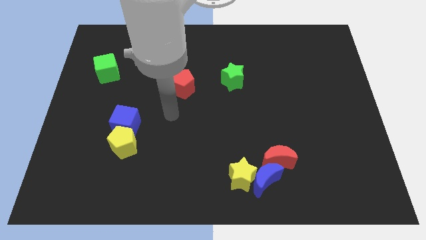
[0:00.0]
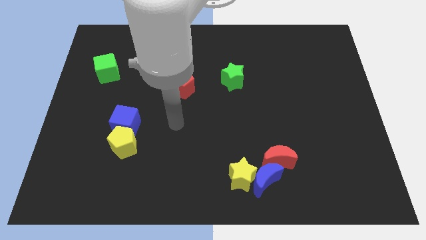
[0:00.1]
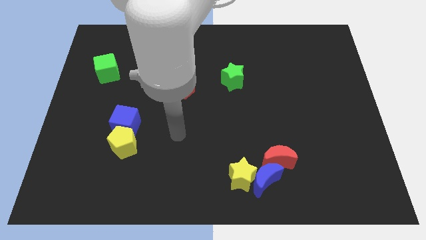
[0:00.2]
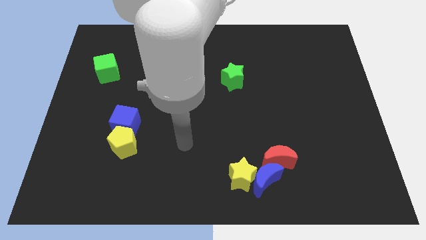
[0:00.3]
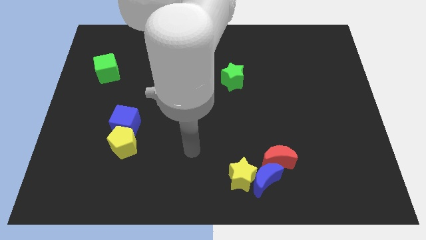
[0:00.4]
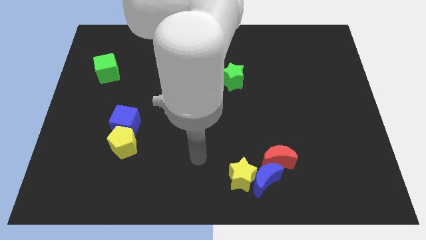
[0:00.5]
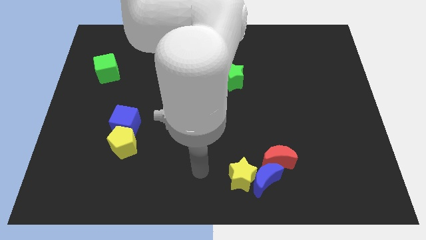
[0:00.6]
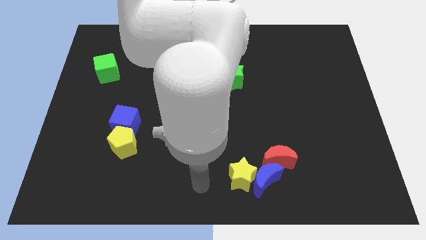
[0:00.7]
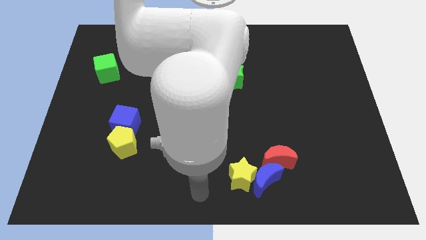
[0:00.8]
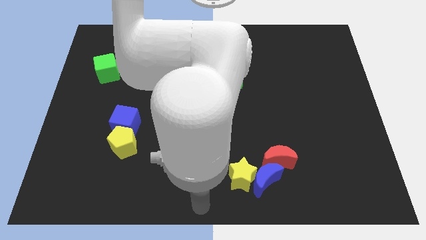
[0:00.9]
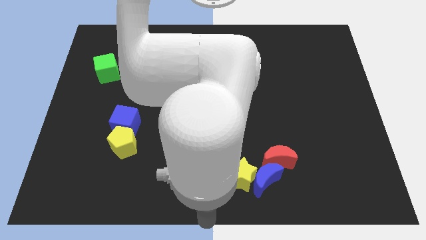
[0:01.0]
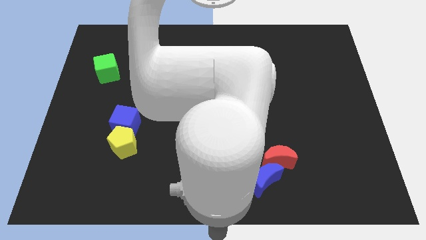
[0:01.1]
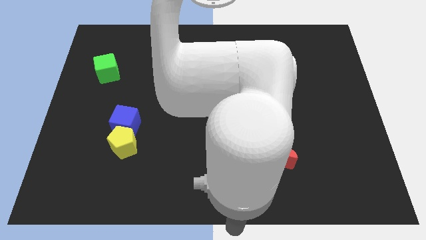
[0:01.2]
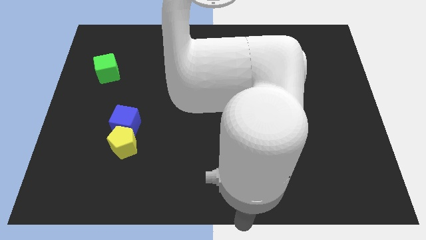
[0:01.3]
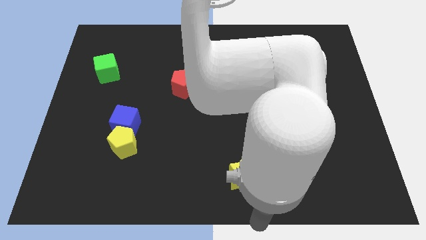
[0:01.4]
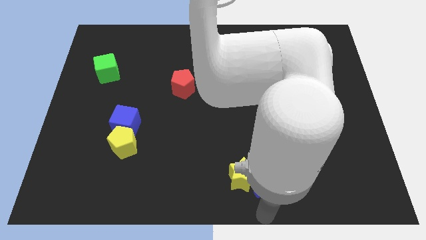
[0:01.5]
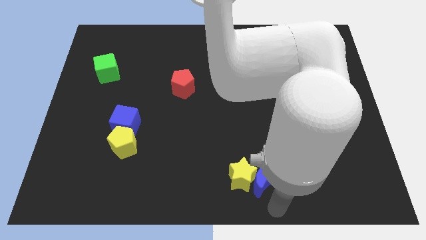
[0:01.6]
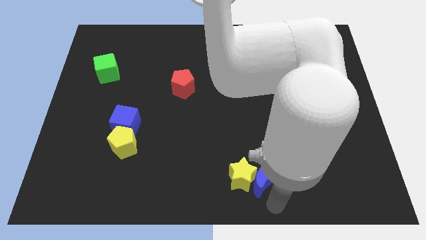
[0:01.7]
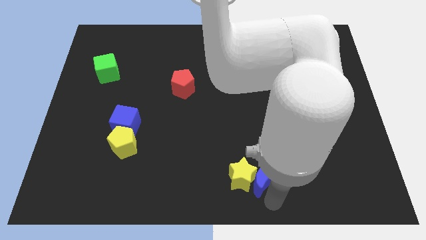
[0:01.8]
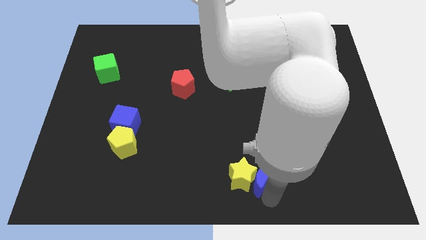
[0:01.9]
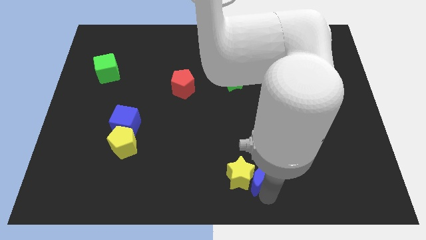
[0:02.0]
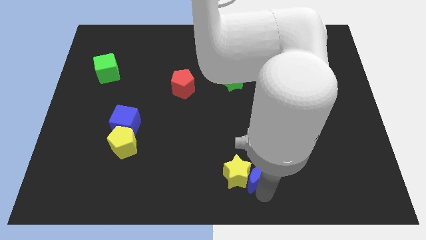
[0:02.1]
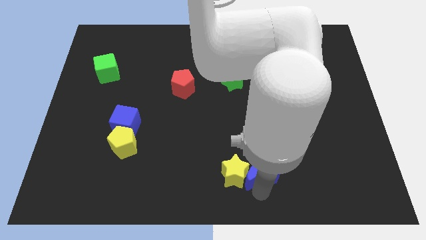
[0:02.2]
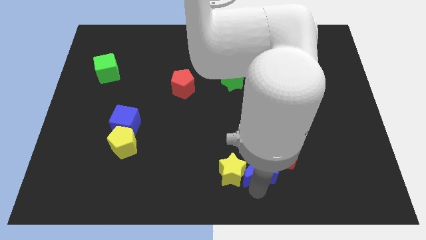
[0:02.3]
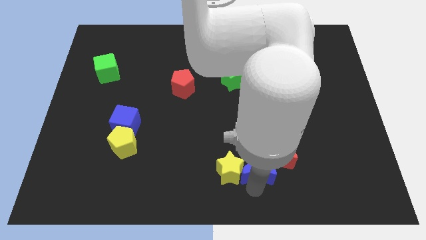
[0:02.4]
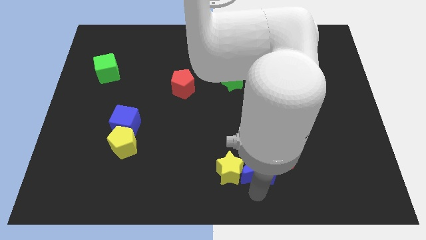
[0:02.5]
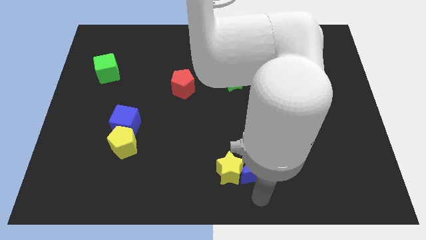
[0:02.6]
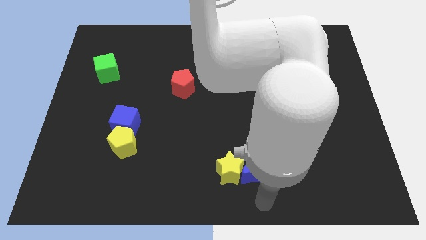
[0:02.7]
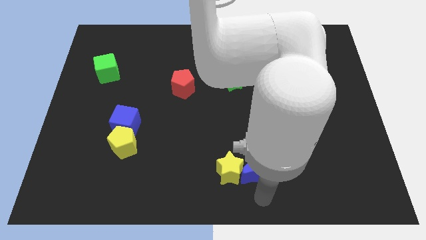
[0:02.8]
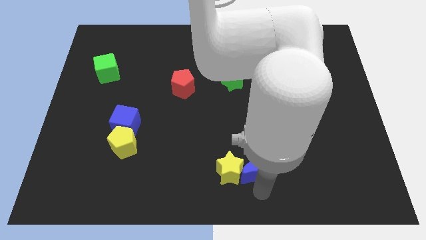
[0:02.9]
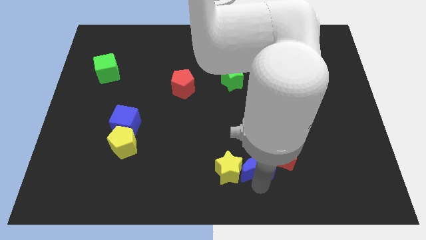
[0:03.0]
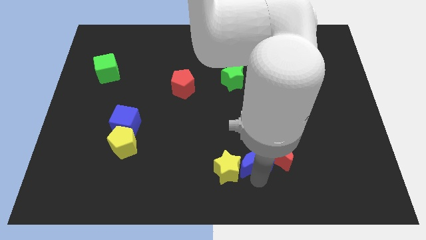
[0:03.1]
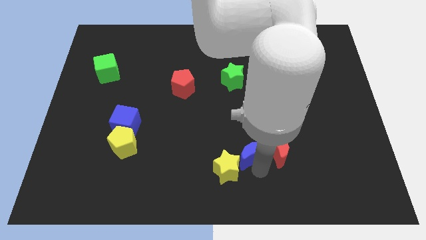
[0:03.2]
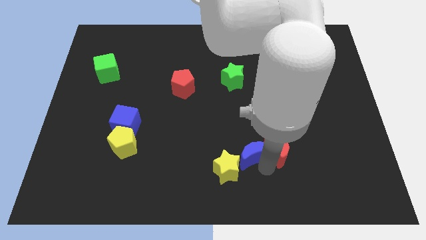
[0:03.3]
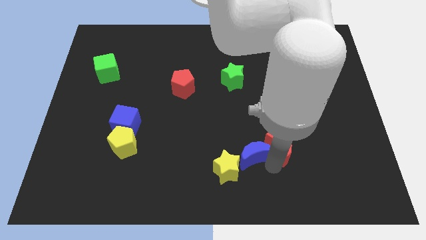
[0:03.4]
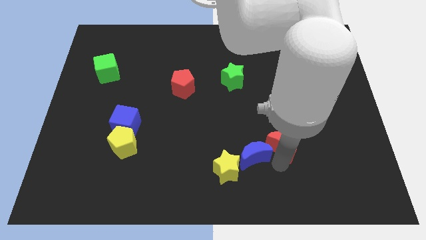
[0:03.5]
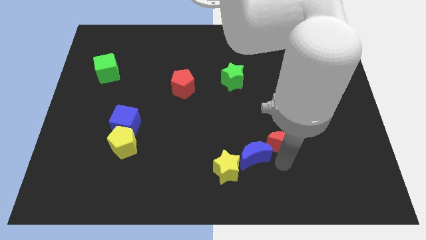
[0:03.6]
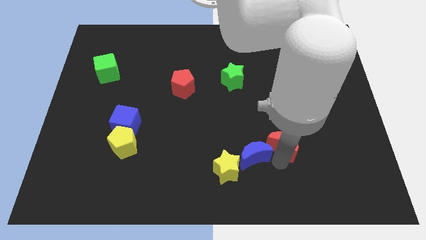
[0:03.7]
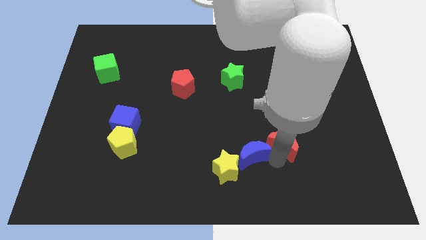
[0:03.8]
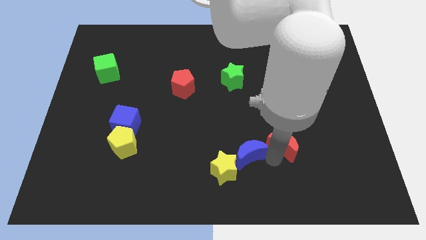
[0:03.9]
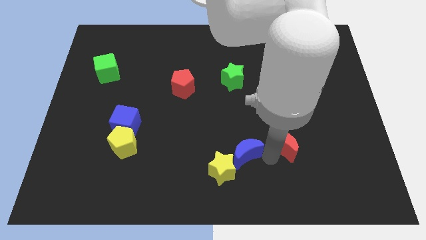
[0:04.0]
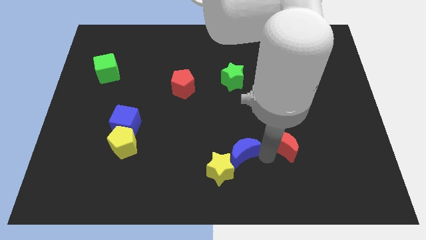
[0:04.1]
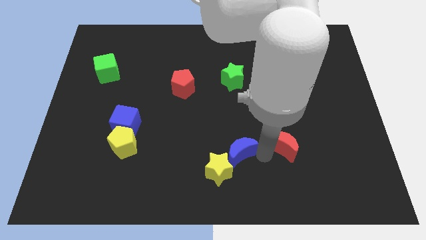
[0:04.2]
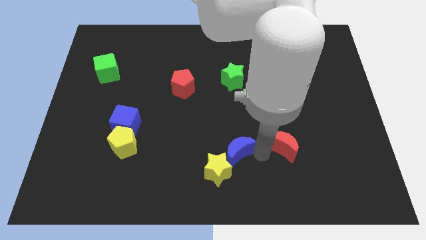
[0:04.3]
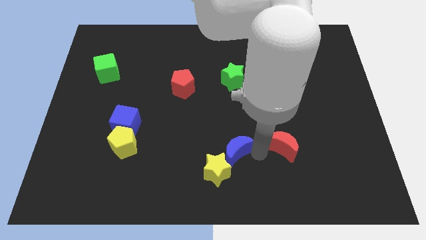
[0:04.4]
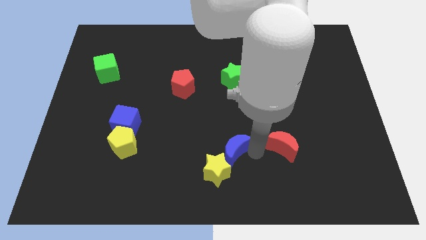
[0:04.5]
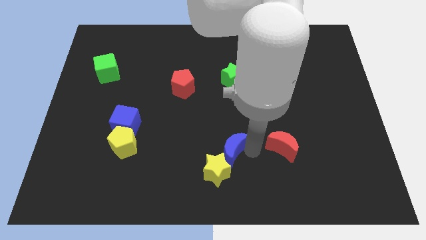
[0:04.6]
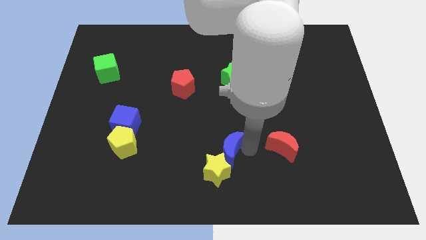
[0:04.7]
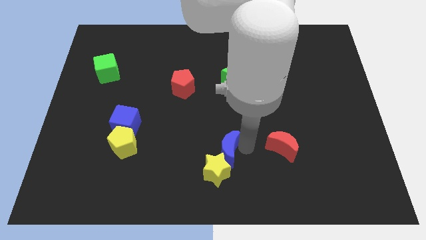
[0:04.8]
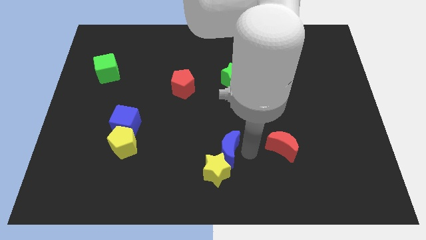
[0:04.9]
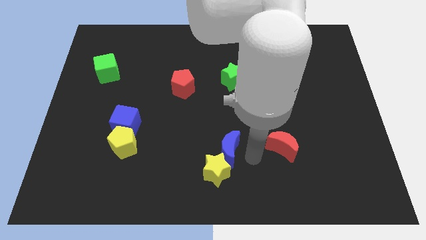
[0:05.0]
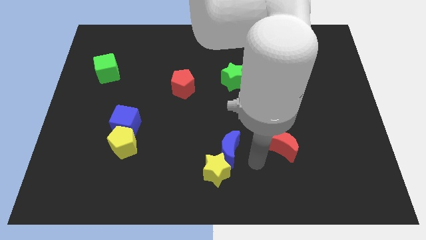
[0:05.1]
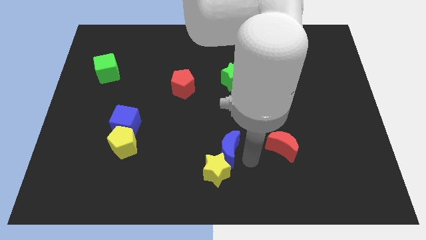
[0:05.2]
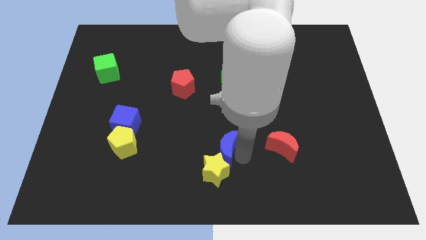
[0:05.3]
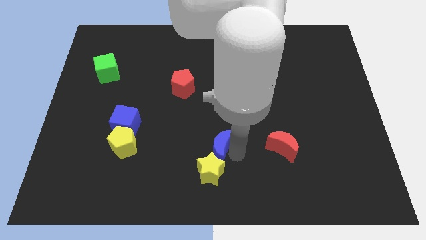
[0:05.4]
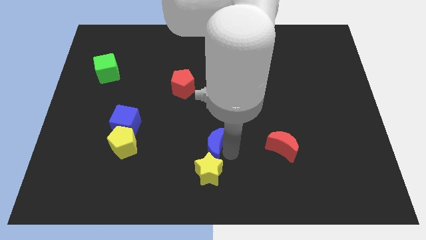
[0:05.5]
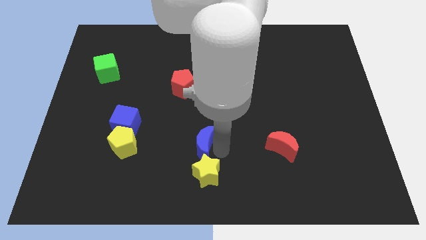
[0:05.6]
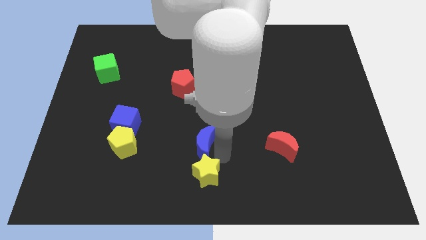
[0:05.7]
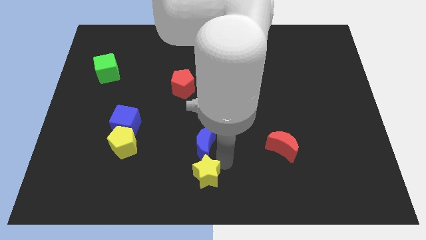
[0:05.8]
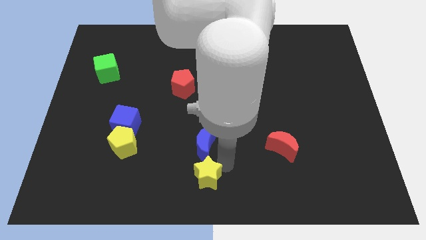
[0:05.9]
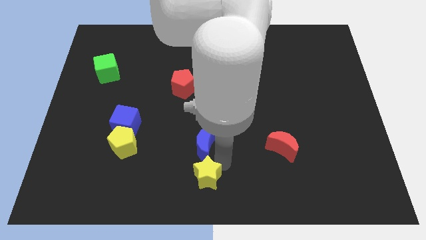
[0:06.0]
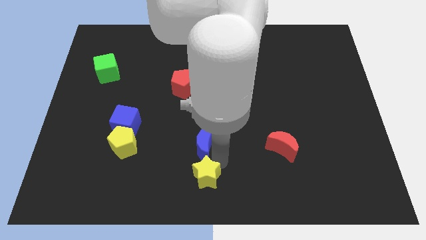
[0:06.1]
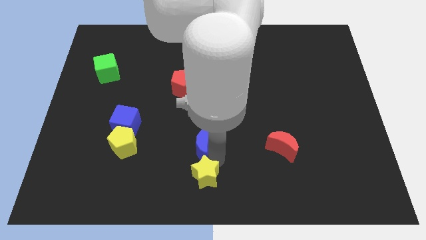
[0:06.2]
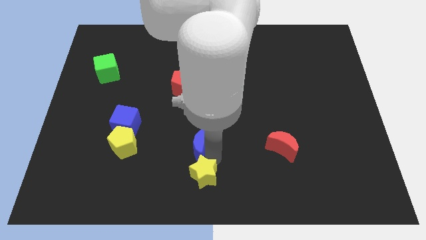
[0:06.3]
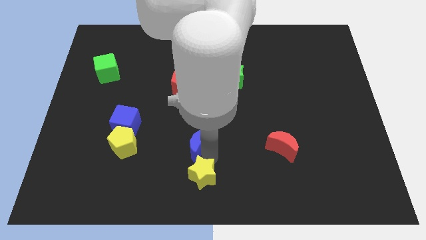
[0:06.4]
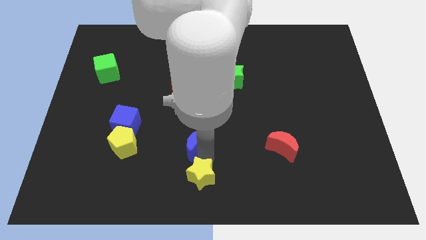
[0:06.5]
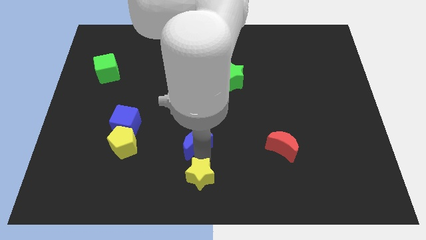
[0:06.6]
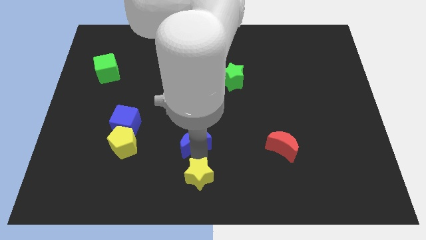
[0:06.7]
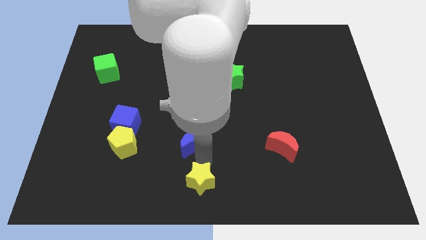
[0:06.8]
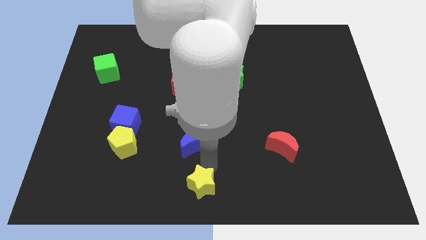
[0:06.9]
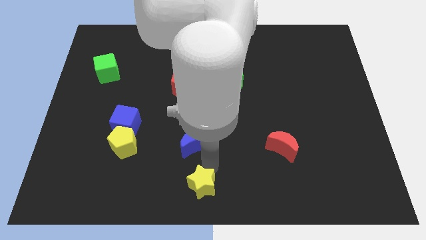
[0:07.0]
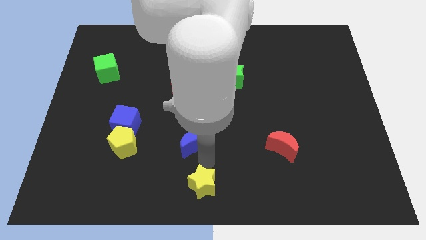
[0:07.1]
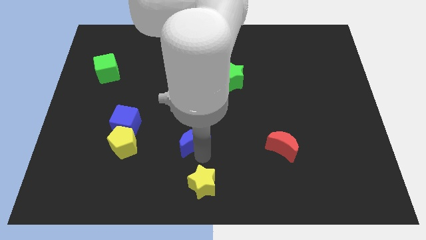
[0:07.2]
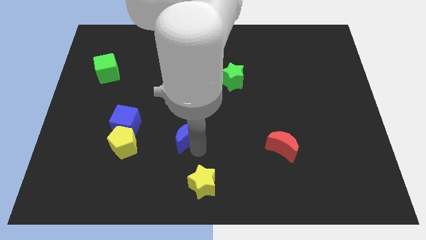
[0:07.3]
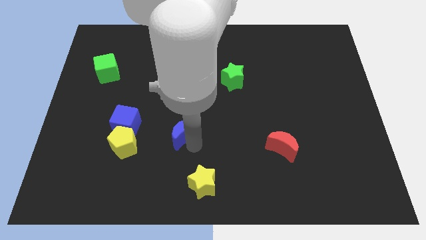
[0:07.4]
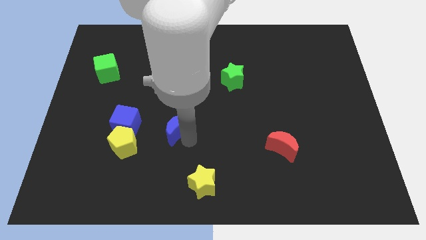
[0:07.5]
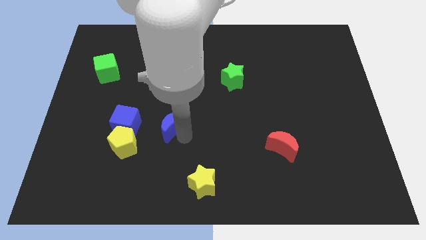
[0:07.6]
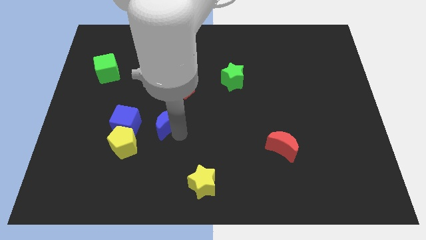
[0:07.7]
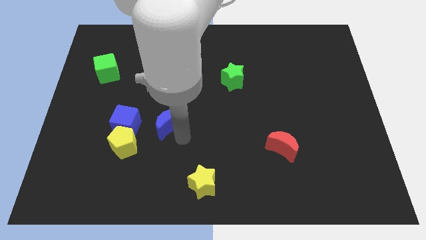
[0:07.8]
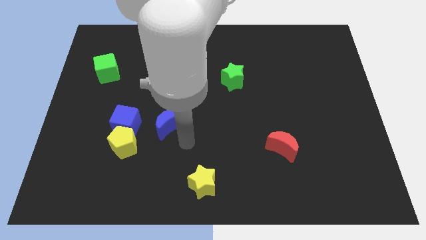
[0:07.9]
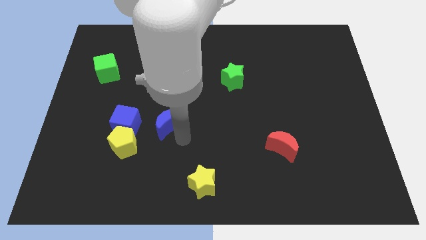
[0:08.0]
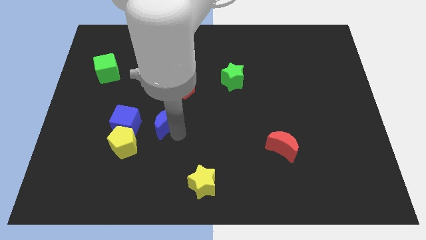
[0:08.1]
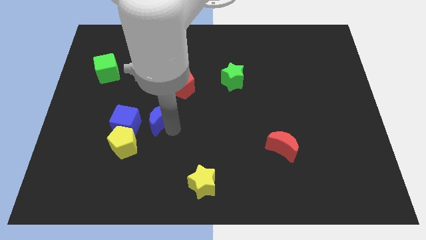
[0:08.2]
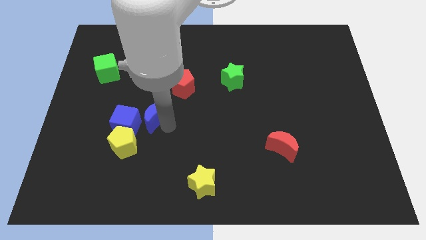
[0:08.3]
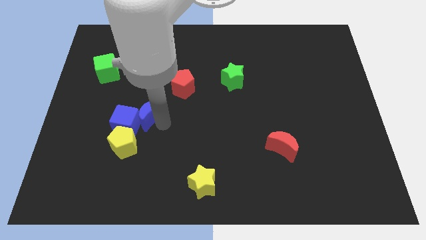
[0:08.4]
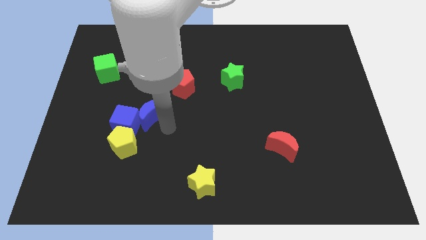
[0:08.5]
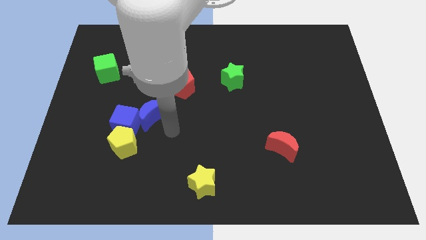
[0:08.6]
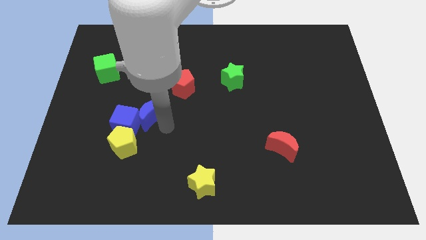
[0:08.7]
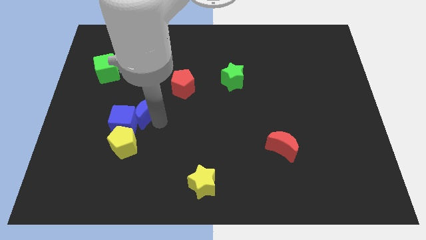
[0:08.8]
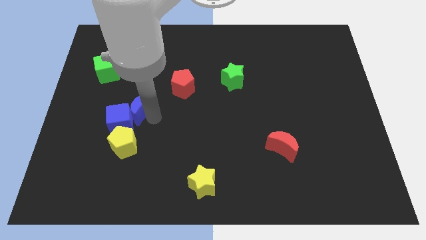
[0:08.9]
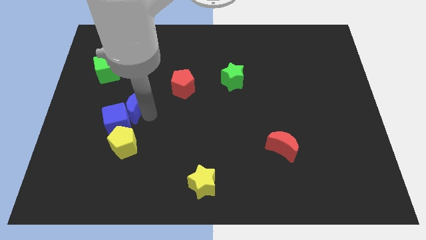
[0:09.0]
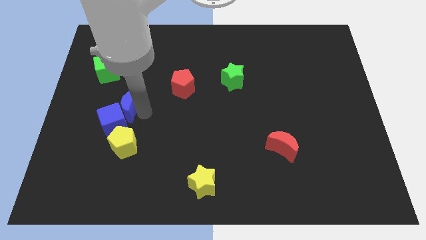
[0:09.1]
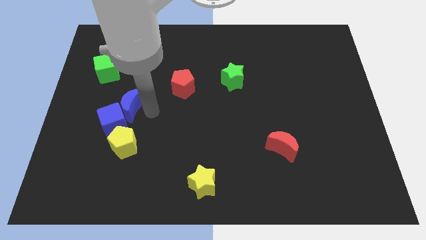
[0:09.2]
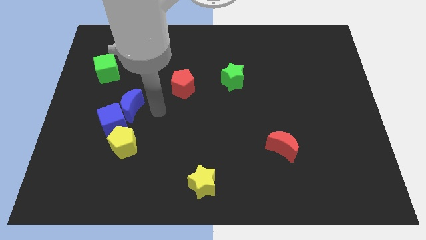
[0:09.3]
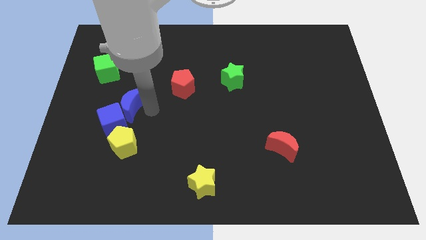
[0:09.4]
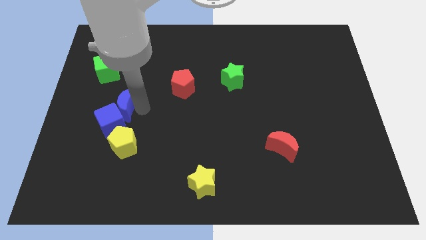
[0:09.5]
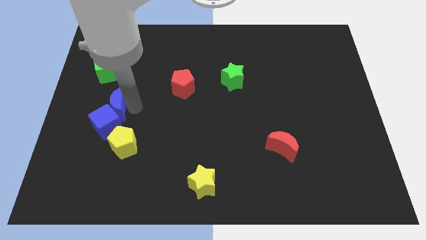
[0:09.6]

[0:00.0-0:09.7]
slide the blue moon below the green cube
